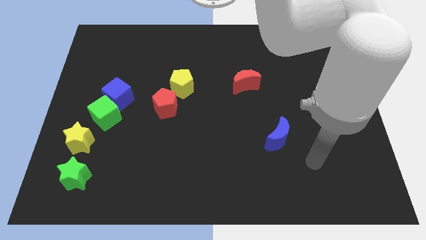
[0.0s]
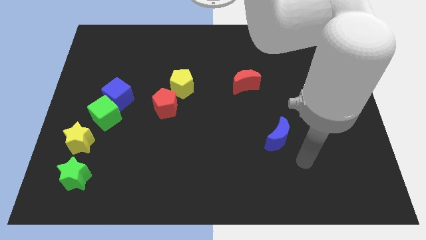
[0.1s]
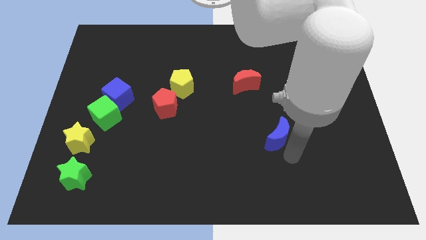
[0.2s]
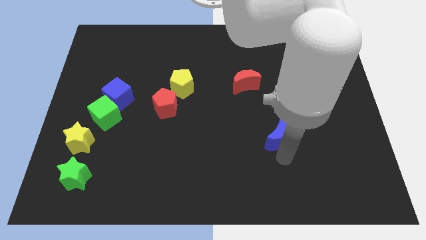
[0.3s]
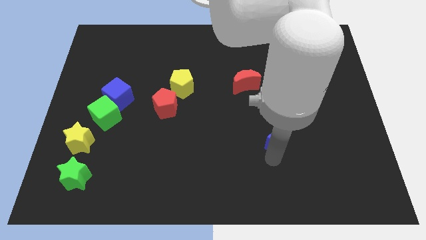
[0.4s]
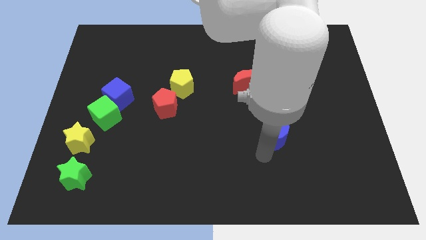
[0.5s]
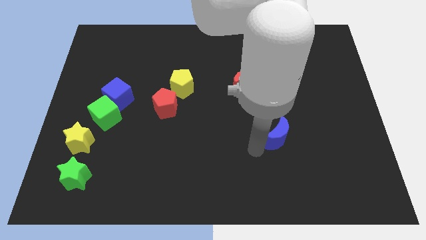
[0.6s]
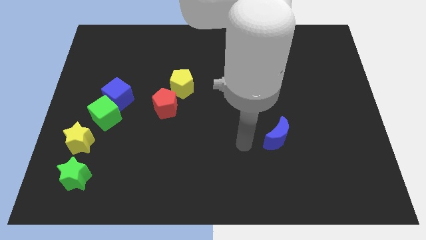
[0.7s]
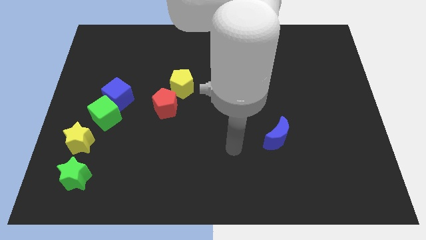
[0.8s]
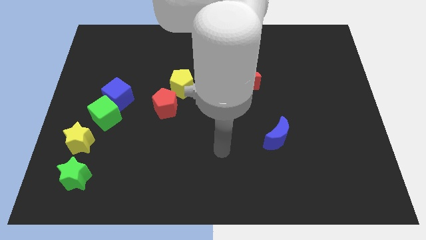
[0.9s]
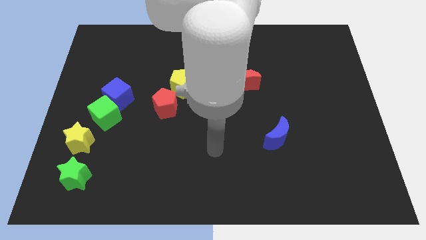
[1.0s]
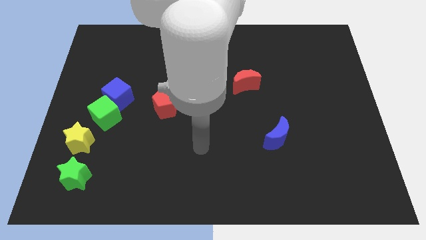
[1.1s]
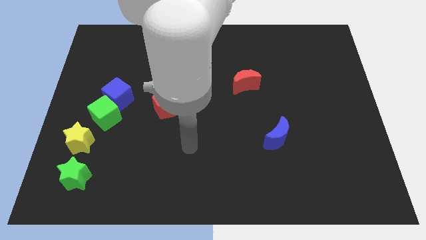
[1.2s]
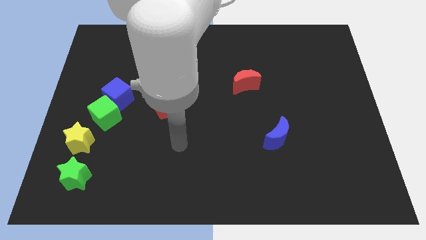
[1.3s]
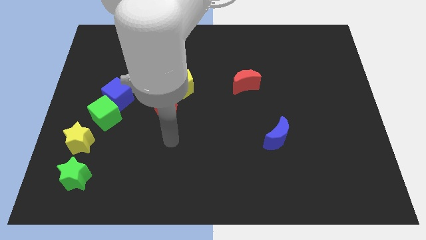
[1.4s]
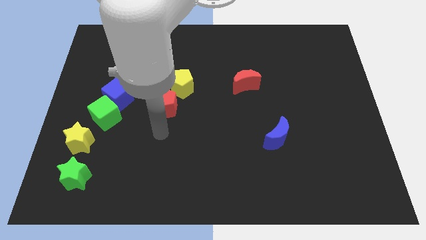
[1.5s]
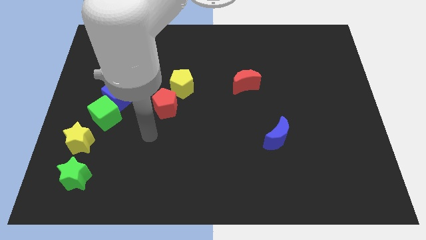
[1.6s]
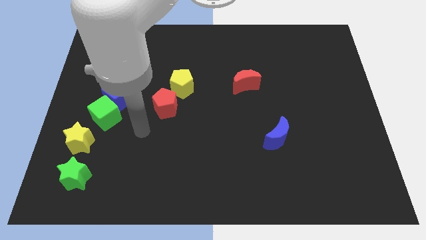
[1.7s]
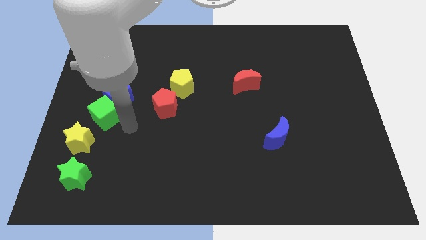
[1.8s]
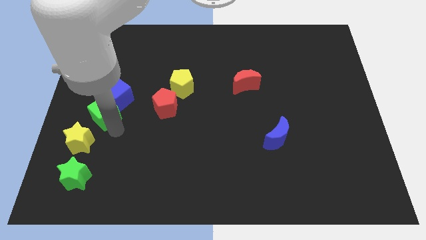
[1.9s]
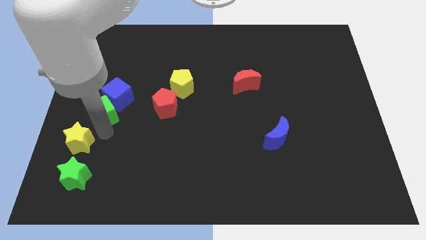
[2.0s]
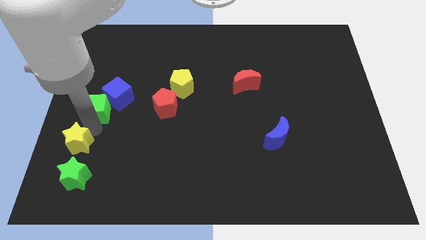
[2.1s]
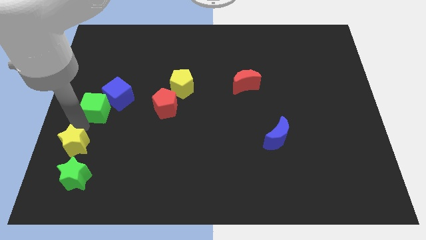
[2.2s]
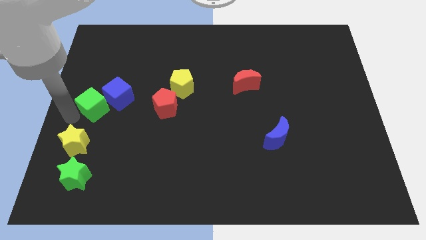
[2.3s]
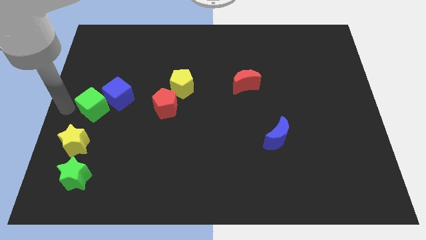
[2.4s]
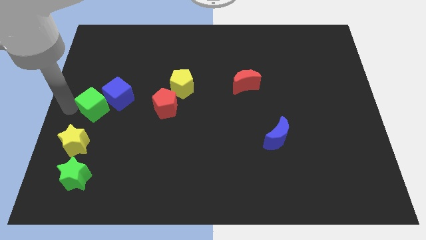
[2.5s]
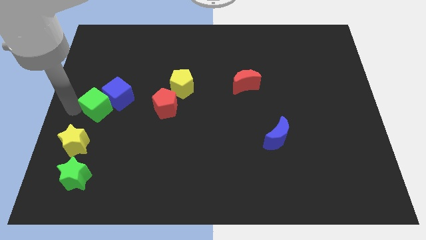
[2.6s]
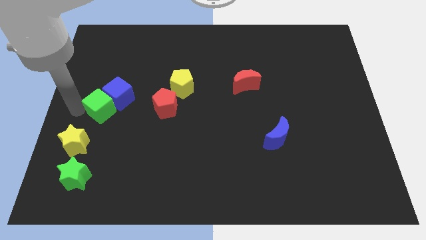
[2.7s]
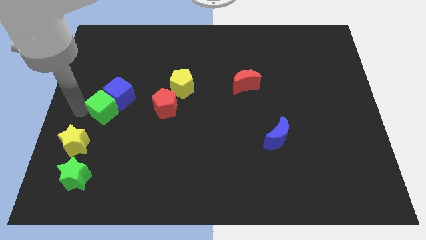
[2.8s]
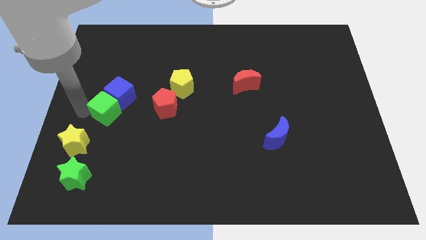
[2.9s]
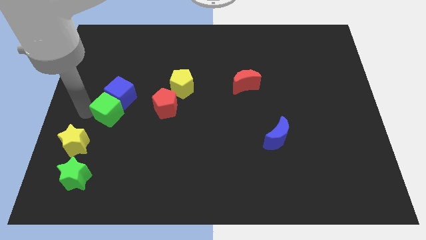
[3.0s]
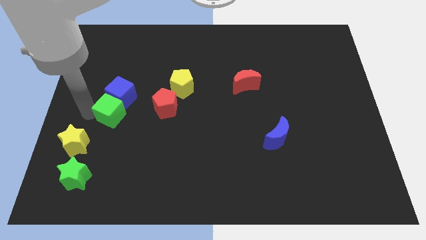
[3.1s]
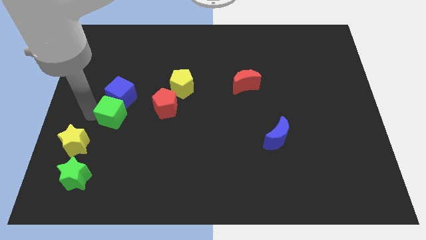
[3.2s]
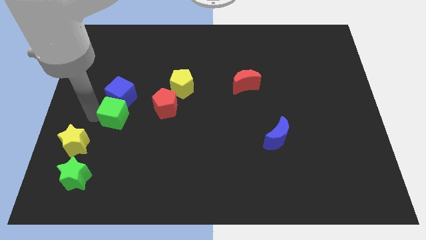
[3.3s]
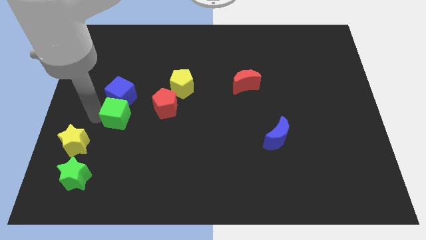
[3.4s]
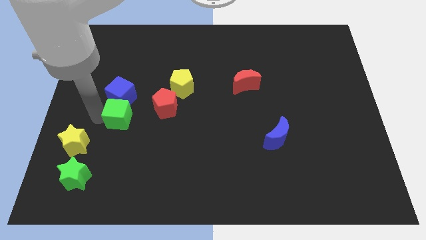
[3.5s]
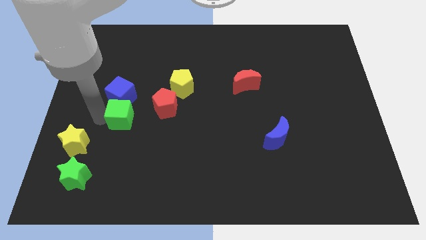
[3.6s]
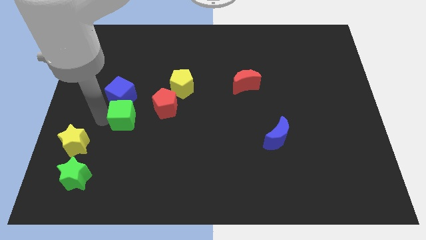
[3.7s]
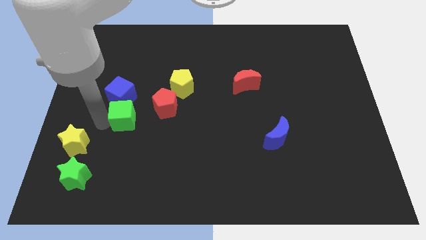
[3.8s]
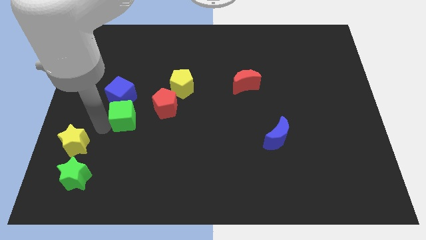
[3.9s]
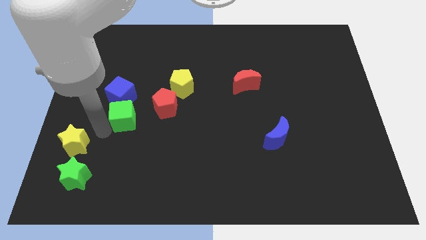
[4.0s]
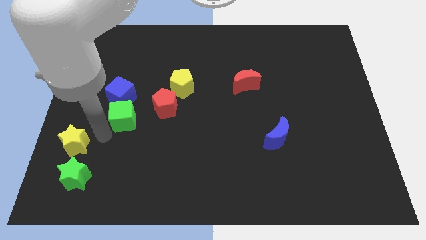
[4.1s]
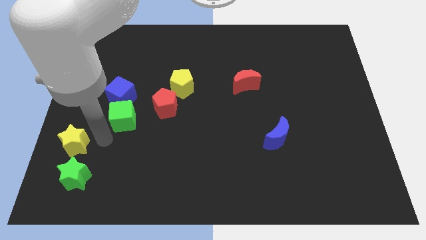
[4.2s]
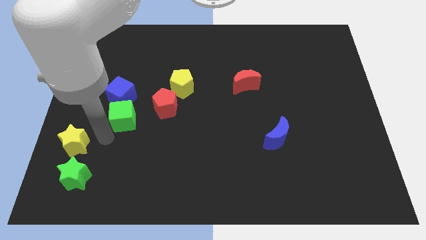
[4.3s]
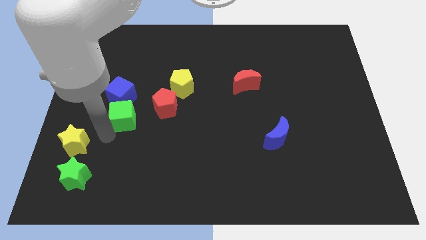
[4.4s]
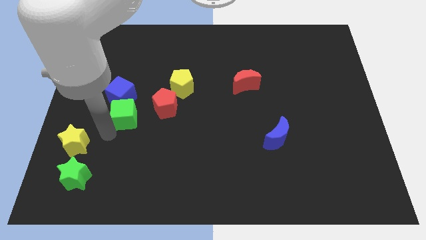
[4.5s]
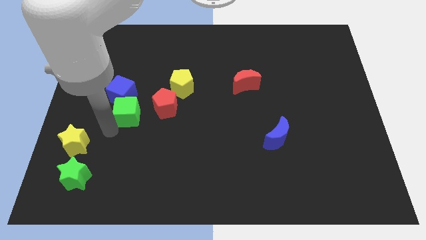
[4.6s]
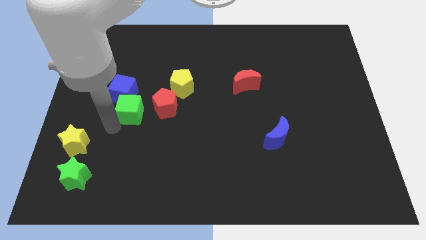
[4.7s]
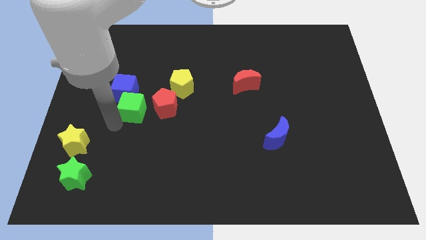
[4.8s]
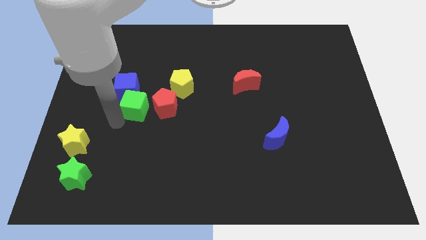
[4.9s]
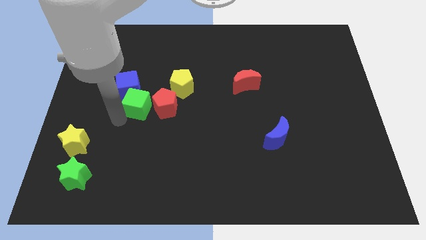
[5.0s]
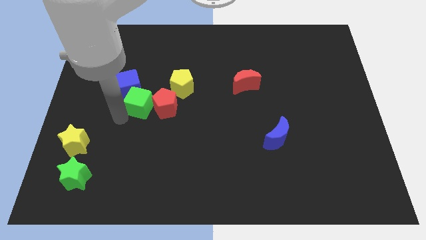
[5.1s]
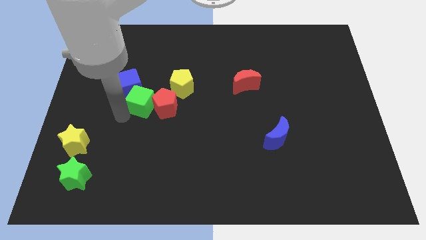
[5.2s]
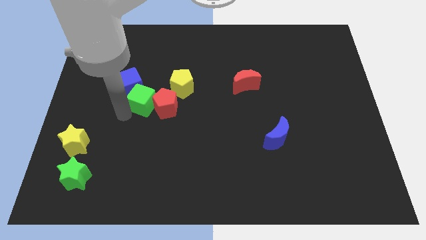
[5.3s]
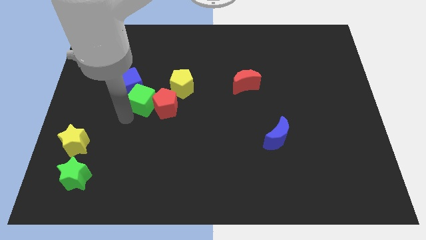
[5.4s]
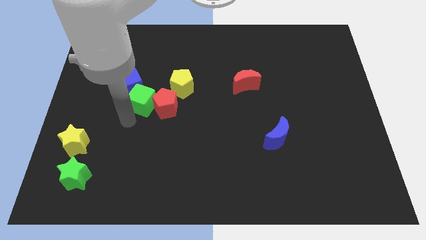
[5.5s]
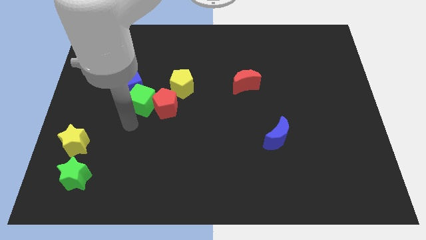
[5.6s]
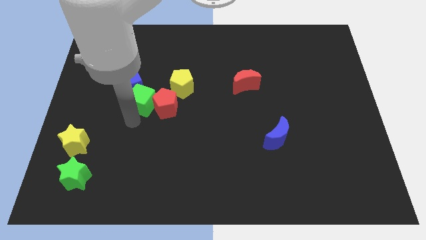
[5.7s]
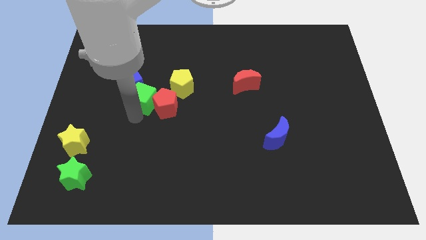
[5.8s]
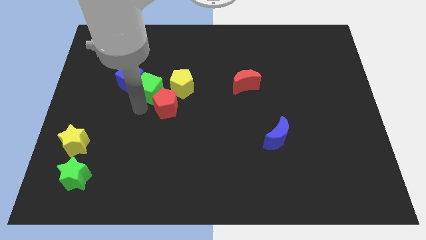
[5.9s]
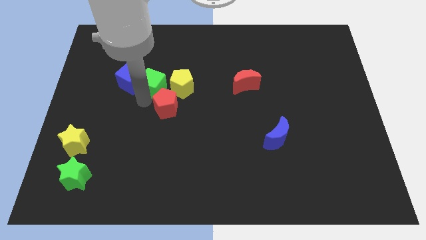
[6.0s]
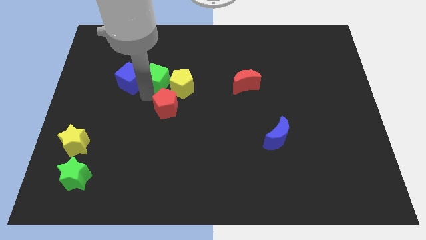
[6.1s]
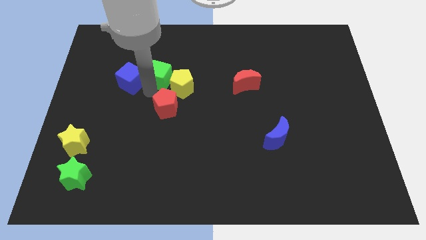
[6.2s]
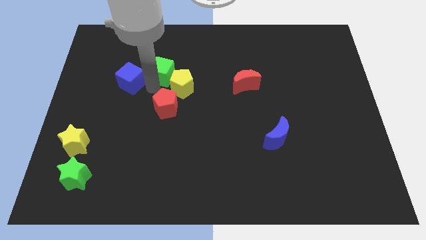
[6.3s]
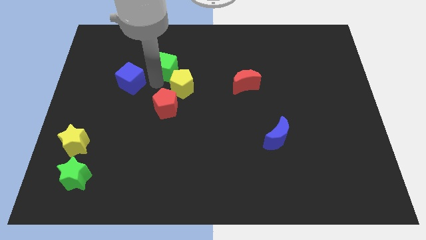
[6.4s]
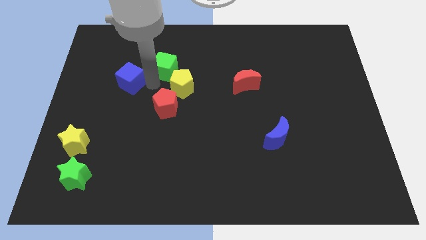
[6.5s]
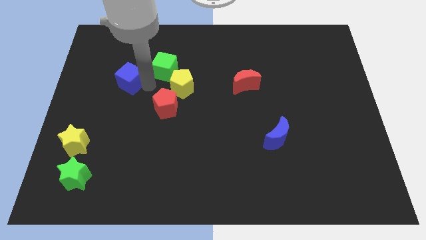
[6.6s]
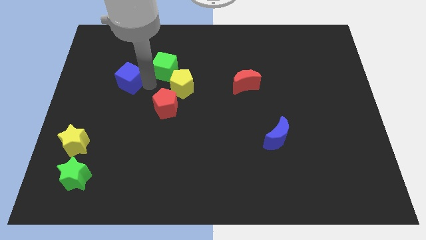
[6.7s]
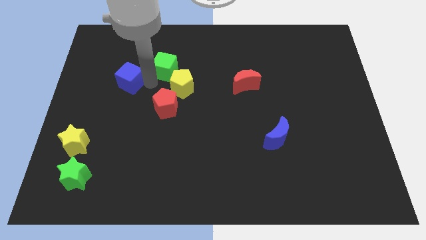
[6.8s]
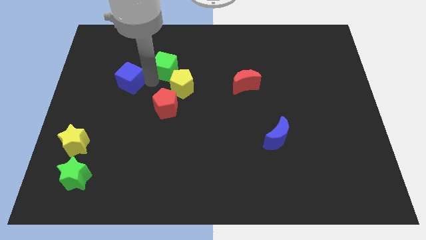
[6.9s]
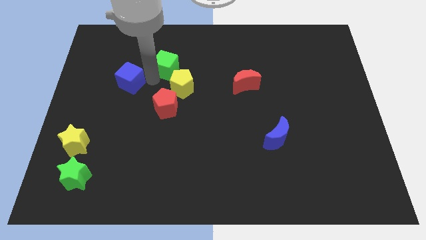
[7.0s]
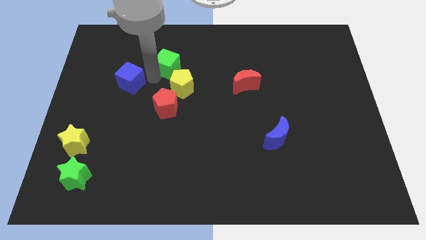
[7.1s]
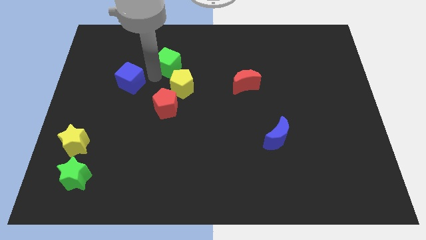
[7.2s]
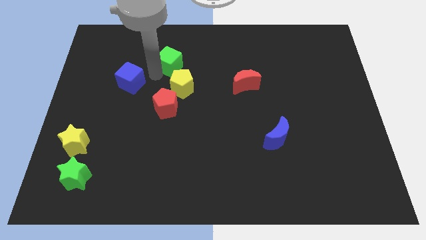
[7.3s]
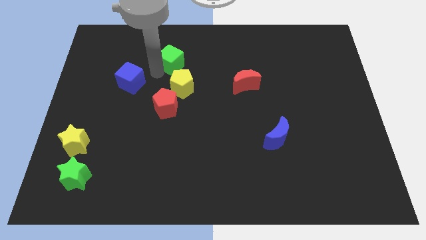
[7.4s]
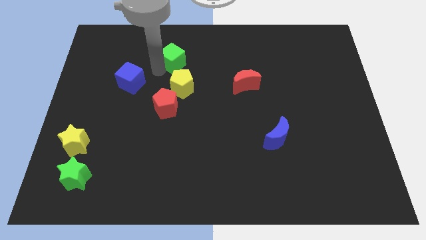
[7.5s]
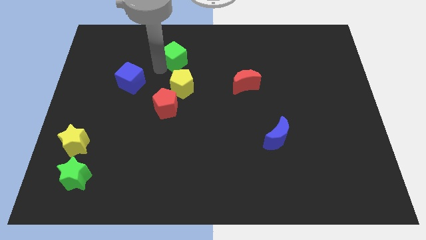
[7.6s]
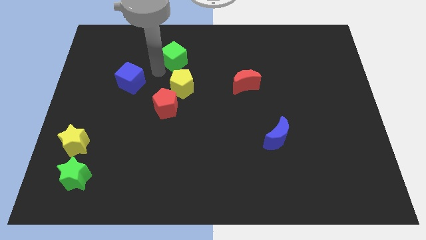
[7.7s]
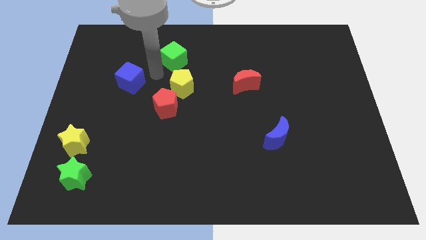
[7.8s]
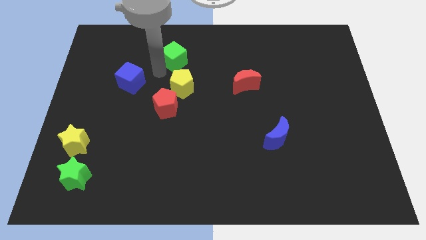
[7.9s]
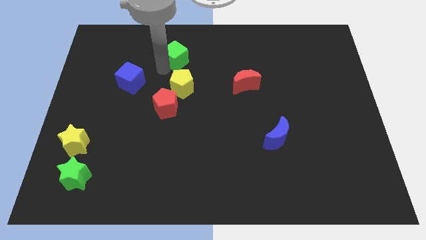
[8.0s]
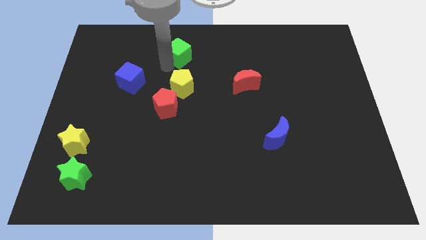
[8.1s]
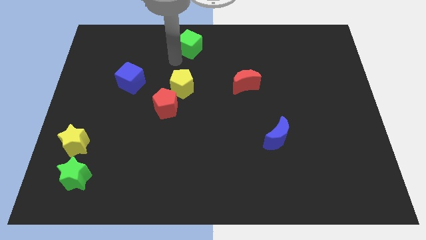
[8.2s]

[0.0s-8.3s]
move the green cube to the top side
